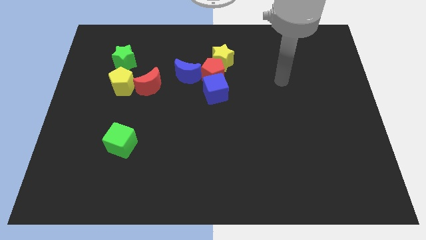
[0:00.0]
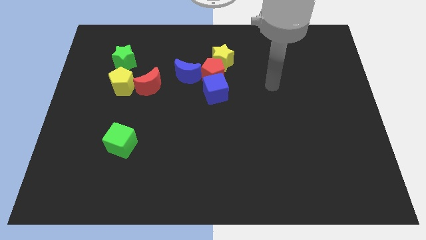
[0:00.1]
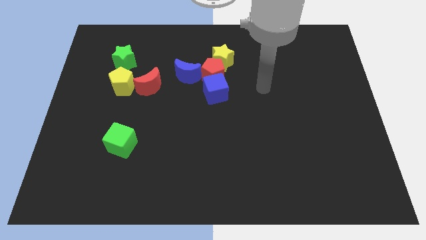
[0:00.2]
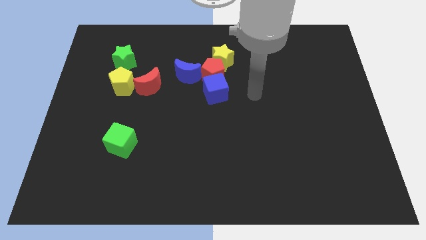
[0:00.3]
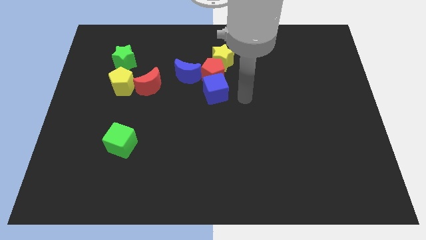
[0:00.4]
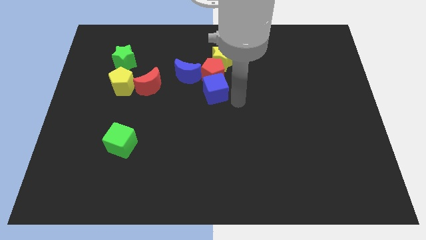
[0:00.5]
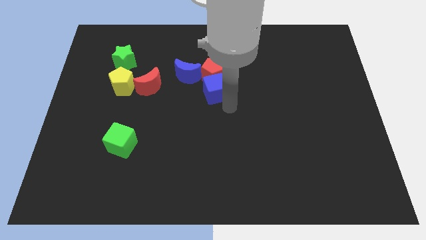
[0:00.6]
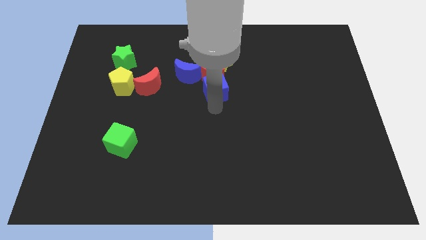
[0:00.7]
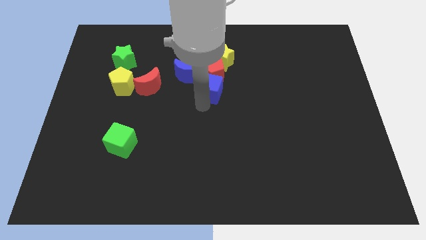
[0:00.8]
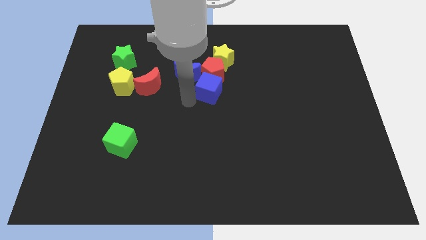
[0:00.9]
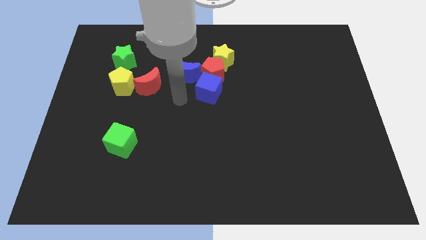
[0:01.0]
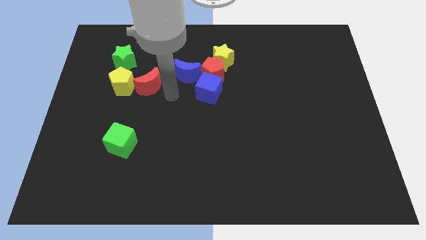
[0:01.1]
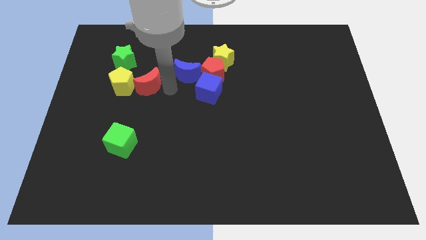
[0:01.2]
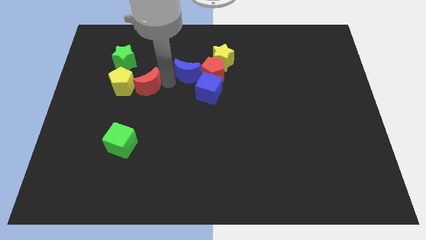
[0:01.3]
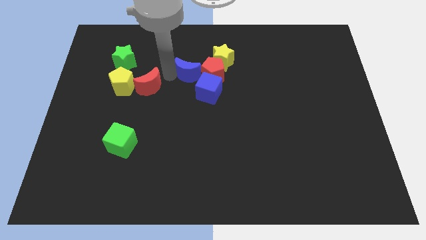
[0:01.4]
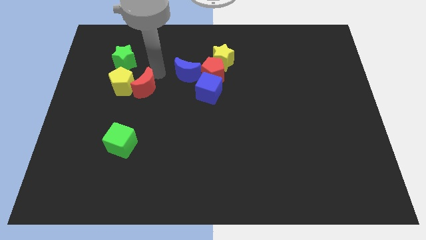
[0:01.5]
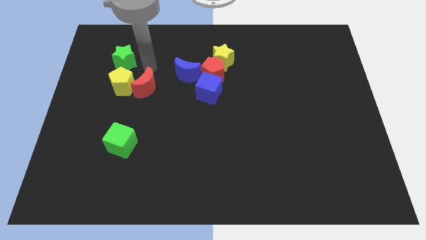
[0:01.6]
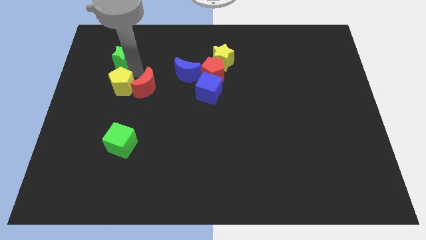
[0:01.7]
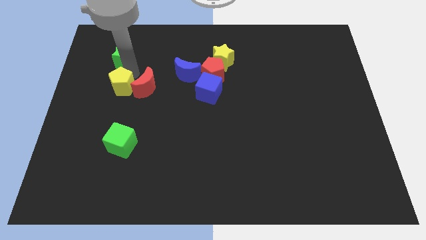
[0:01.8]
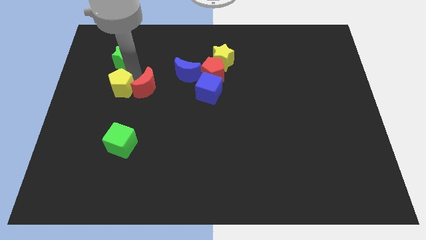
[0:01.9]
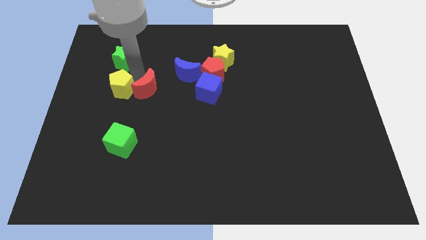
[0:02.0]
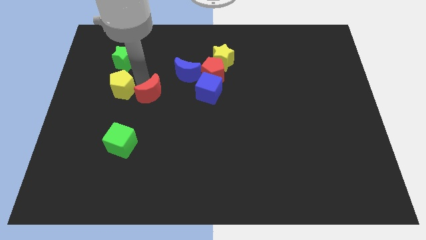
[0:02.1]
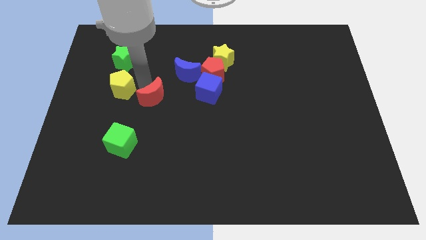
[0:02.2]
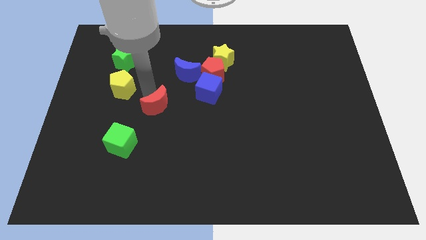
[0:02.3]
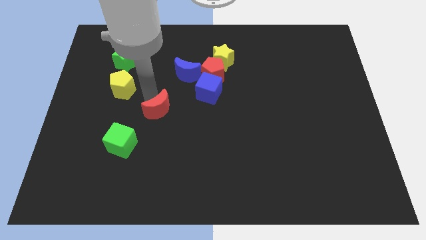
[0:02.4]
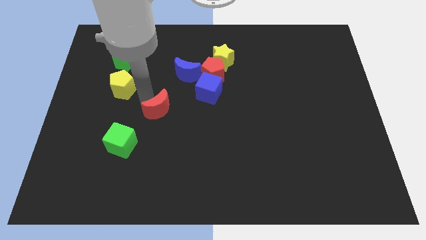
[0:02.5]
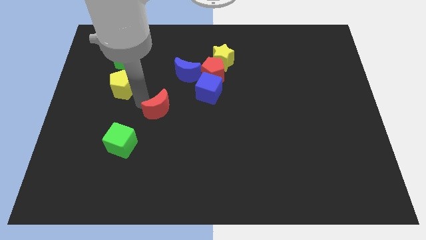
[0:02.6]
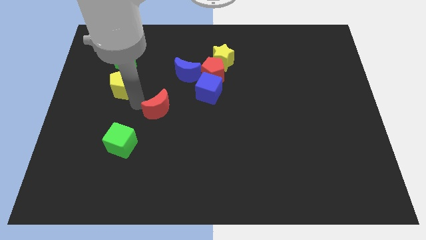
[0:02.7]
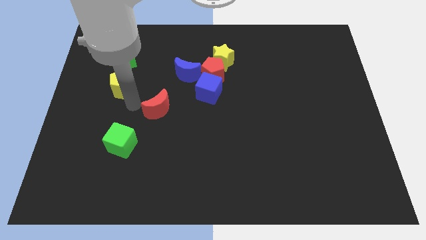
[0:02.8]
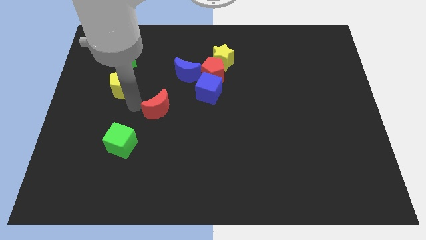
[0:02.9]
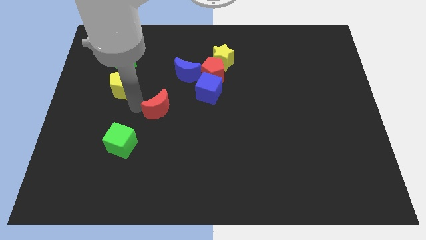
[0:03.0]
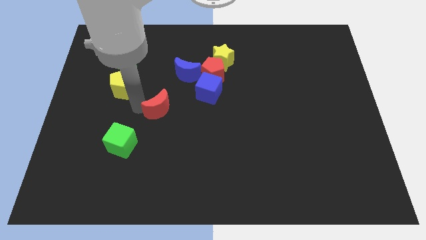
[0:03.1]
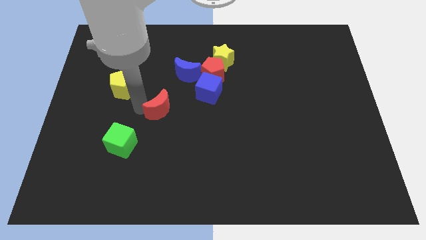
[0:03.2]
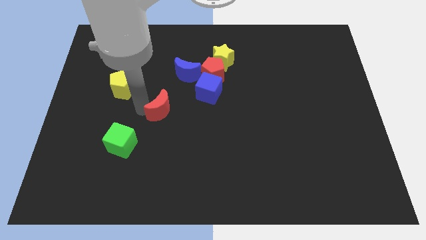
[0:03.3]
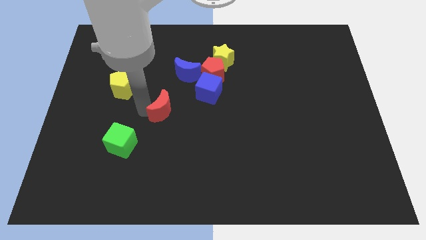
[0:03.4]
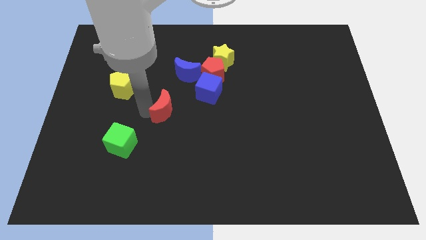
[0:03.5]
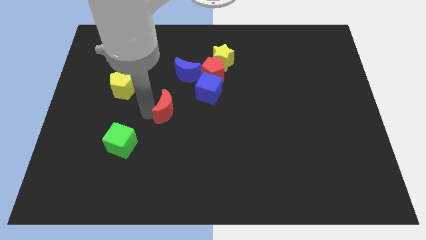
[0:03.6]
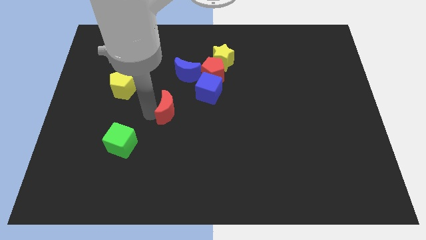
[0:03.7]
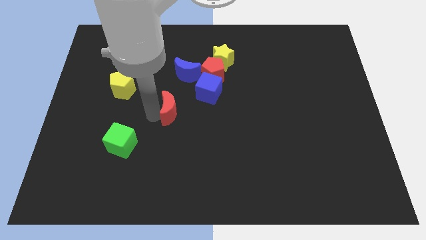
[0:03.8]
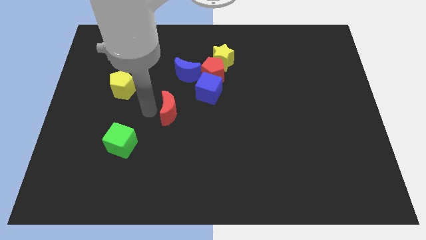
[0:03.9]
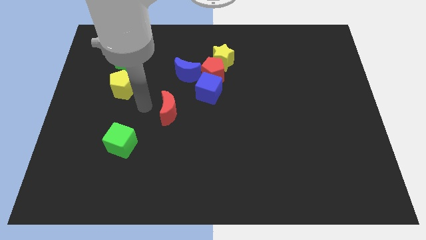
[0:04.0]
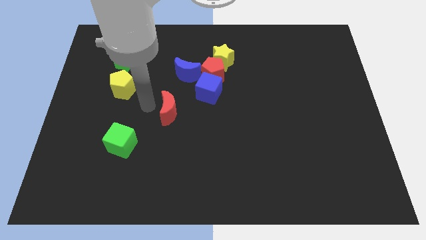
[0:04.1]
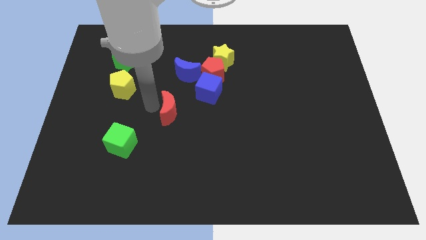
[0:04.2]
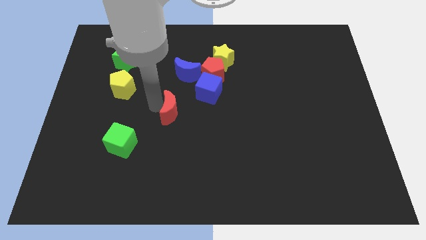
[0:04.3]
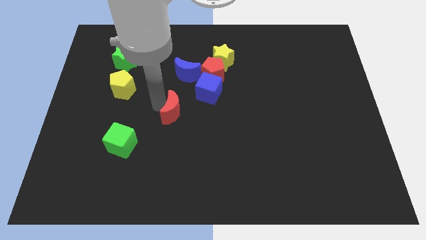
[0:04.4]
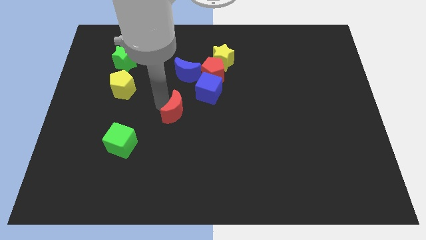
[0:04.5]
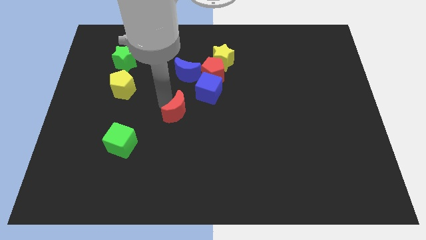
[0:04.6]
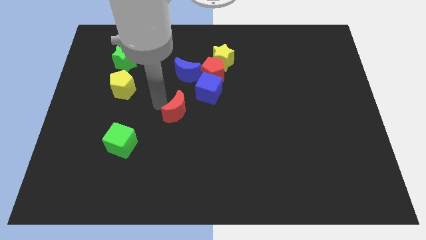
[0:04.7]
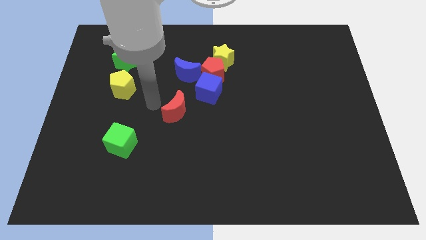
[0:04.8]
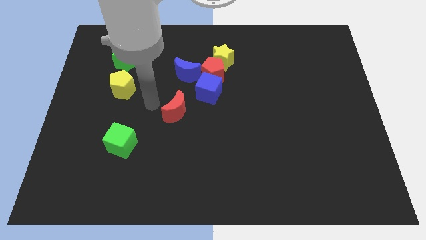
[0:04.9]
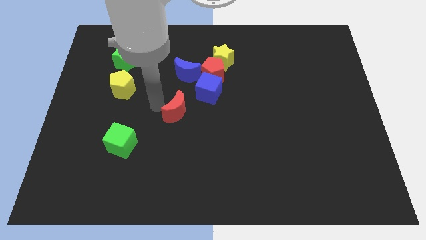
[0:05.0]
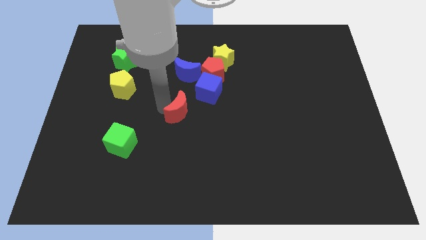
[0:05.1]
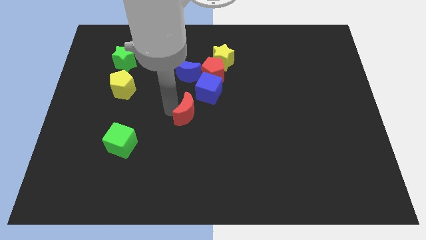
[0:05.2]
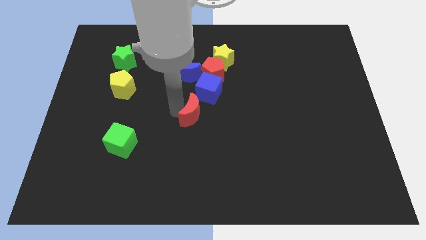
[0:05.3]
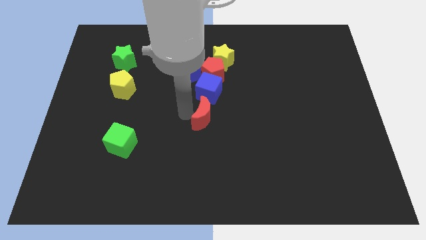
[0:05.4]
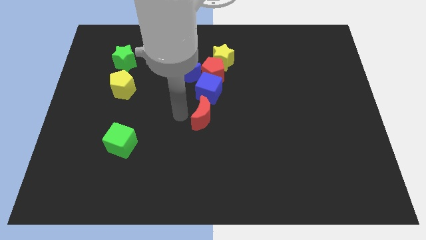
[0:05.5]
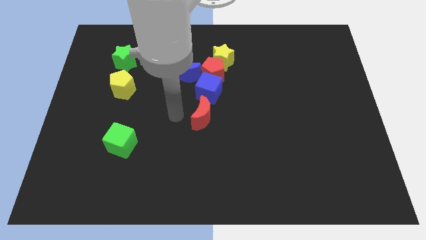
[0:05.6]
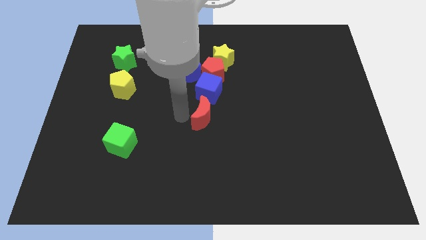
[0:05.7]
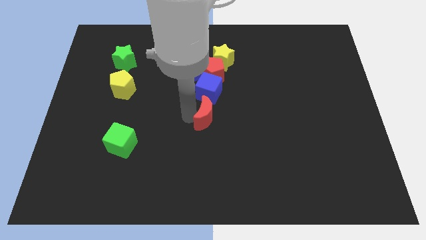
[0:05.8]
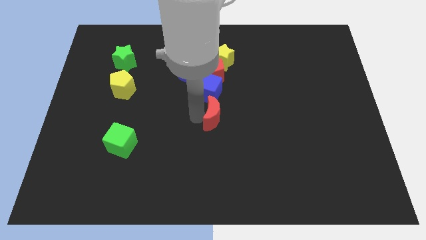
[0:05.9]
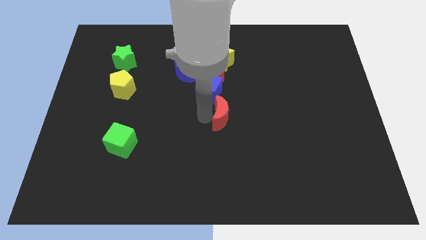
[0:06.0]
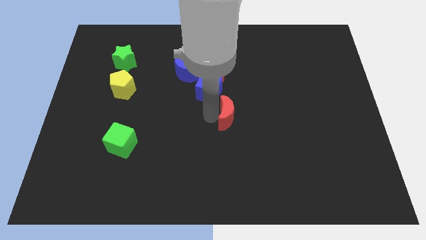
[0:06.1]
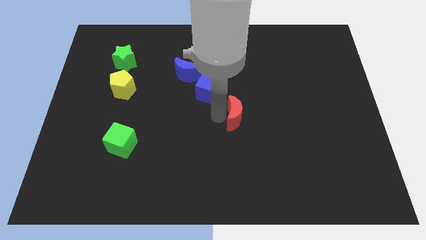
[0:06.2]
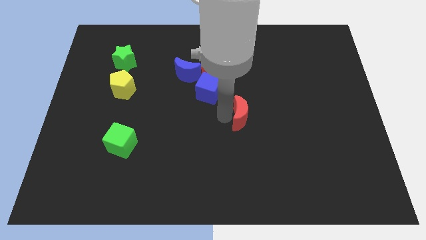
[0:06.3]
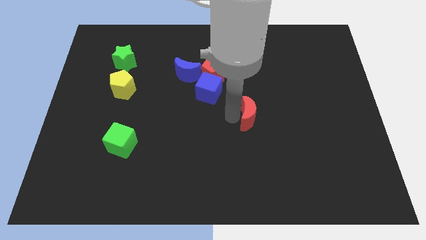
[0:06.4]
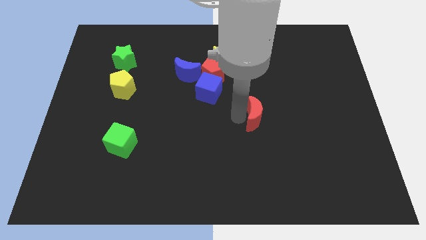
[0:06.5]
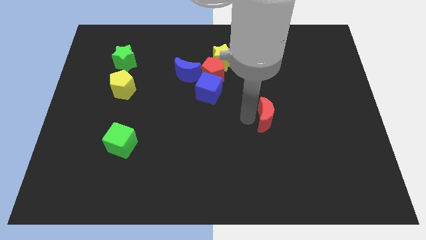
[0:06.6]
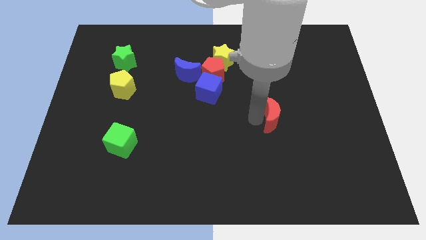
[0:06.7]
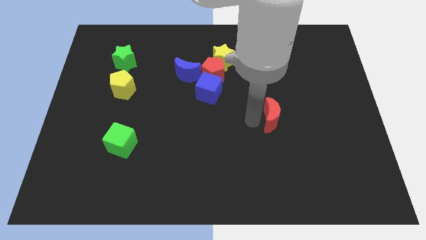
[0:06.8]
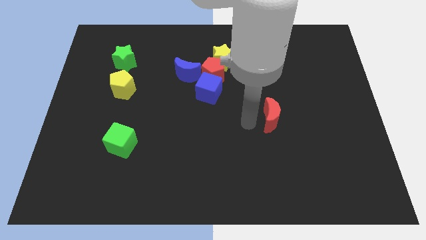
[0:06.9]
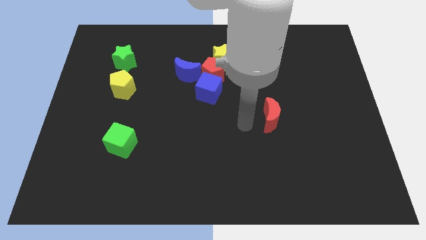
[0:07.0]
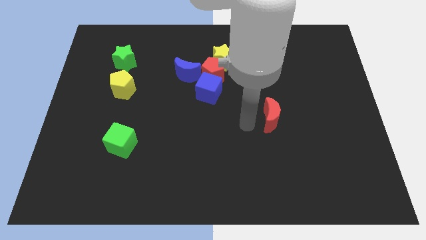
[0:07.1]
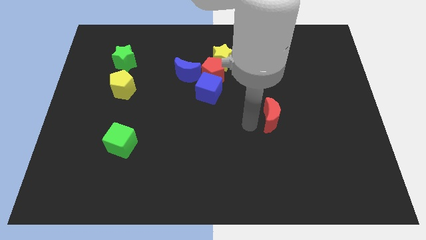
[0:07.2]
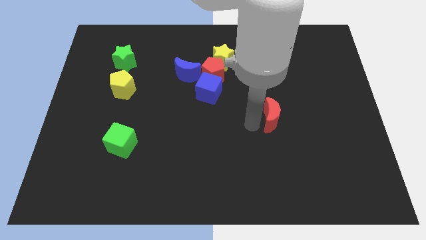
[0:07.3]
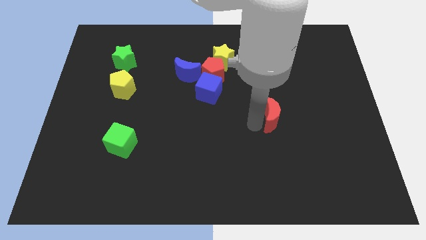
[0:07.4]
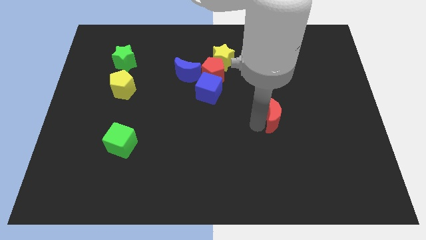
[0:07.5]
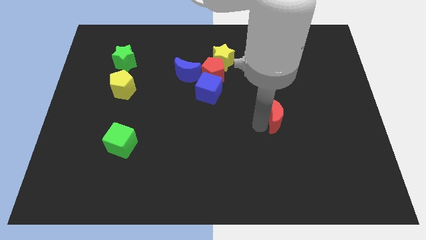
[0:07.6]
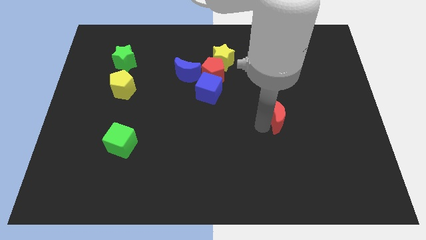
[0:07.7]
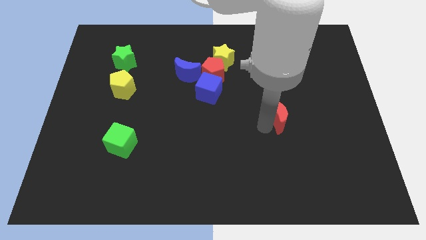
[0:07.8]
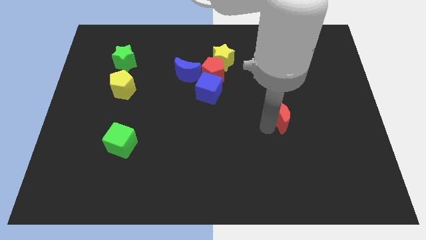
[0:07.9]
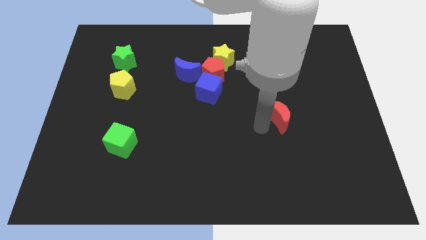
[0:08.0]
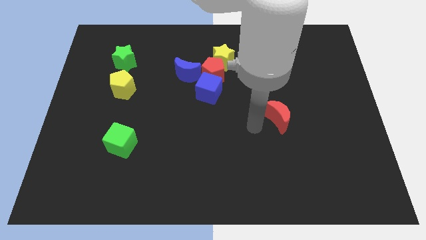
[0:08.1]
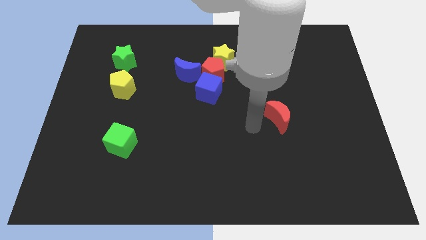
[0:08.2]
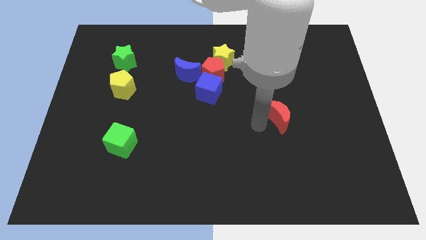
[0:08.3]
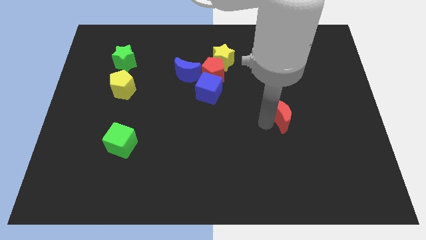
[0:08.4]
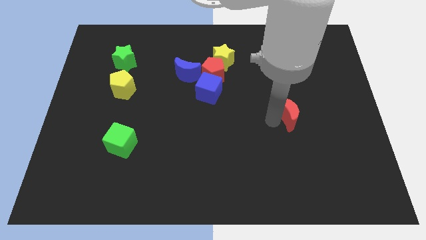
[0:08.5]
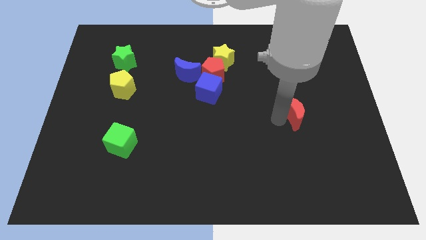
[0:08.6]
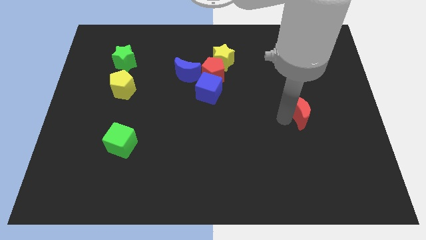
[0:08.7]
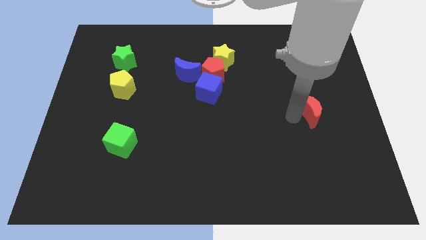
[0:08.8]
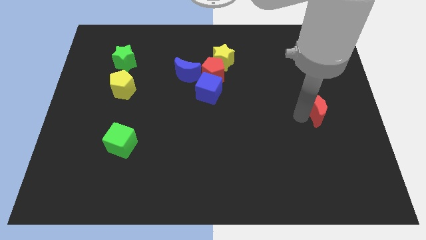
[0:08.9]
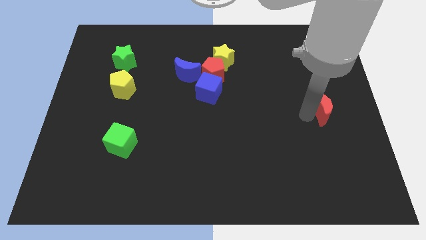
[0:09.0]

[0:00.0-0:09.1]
put the red moon to the center right
